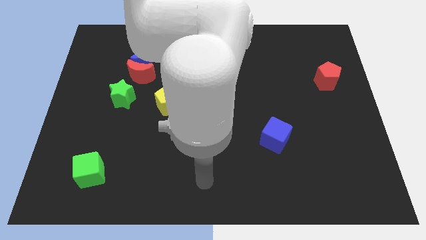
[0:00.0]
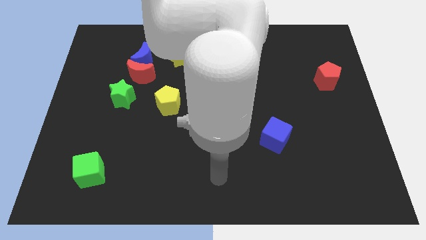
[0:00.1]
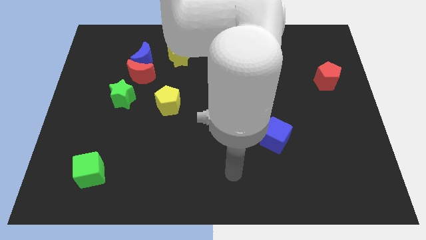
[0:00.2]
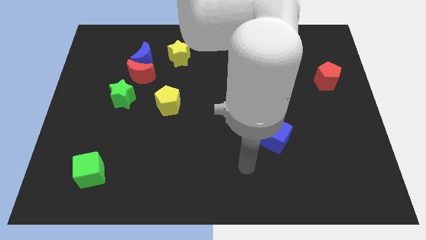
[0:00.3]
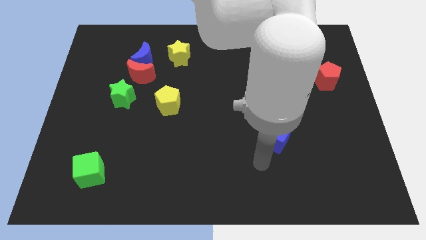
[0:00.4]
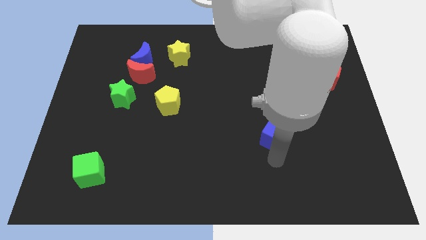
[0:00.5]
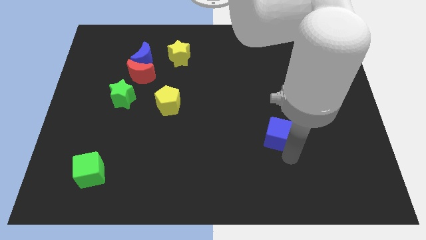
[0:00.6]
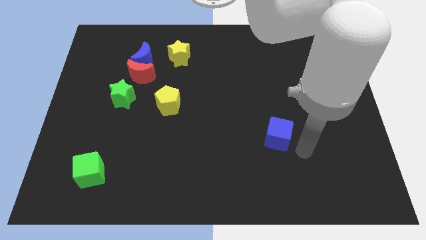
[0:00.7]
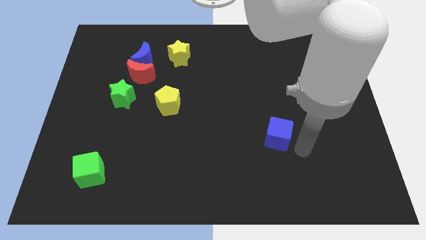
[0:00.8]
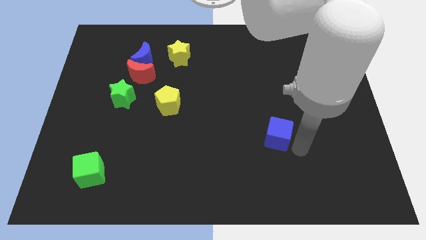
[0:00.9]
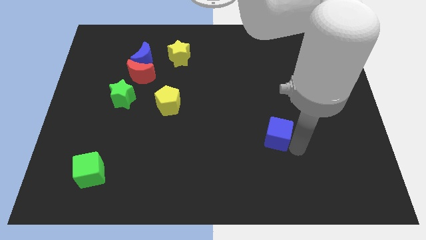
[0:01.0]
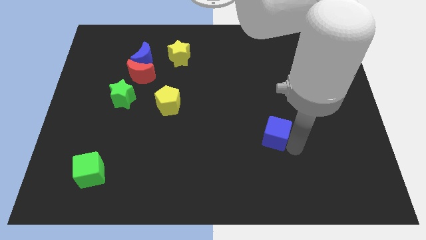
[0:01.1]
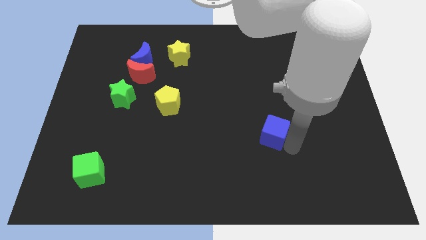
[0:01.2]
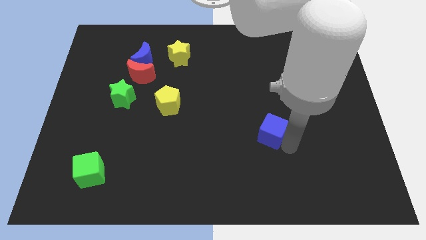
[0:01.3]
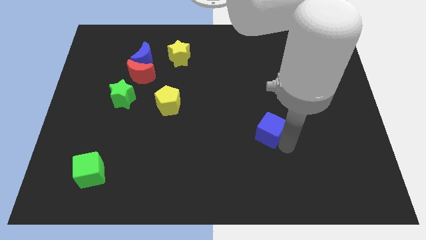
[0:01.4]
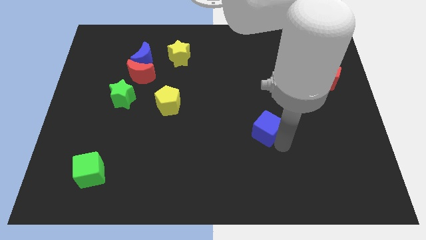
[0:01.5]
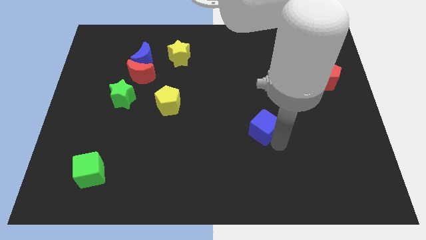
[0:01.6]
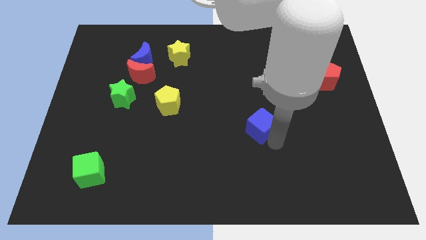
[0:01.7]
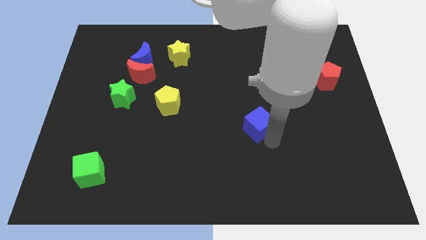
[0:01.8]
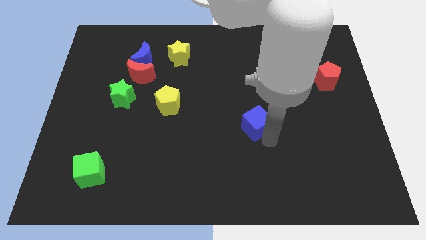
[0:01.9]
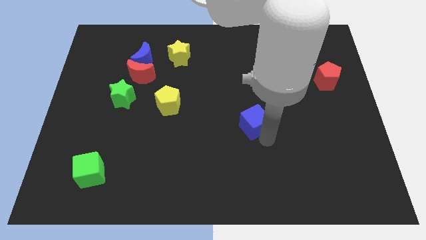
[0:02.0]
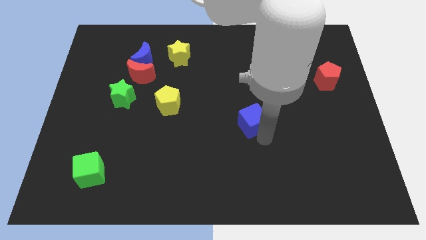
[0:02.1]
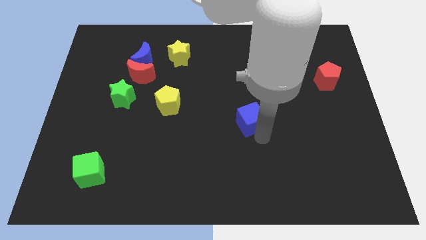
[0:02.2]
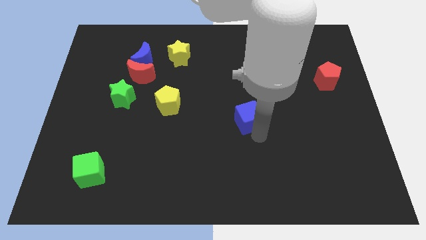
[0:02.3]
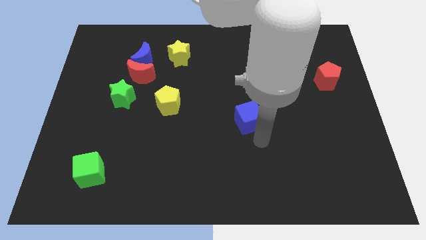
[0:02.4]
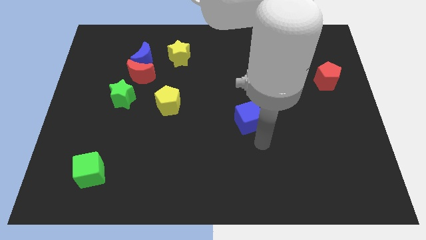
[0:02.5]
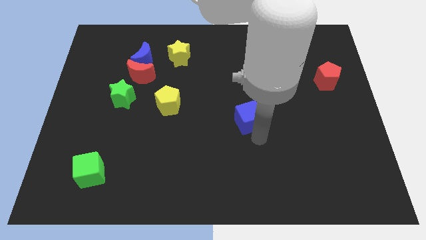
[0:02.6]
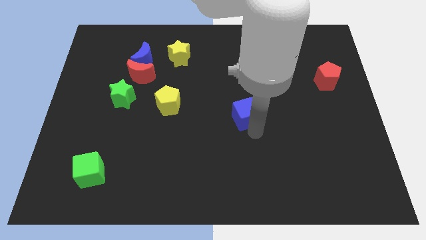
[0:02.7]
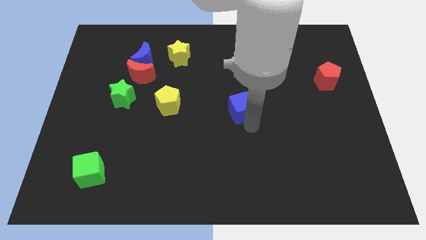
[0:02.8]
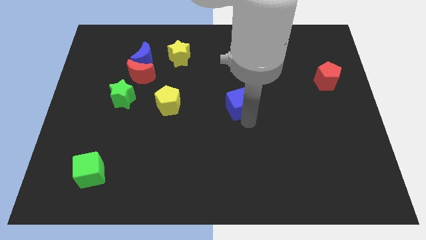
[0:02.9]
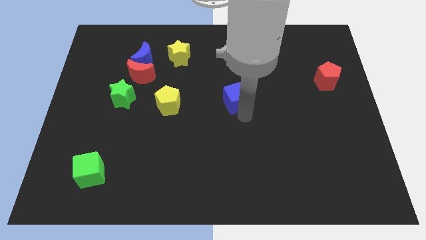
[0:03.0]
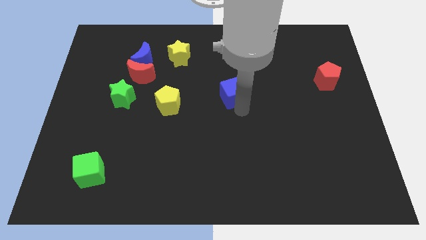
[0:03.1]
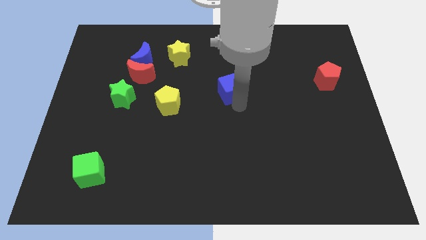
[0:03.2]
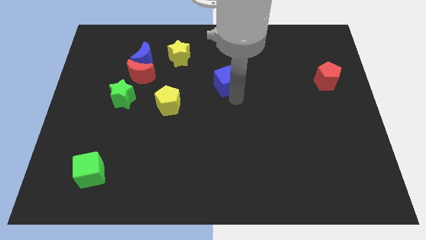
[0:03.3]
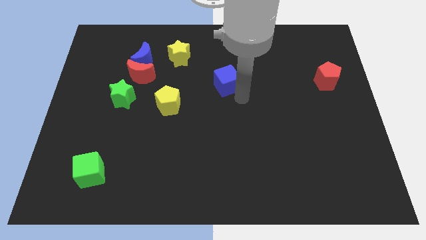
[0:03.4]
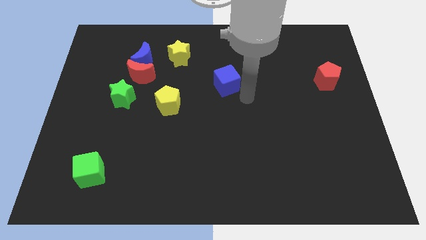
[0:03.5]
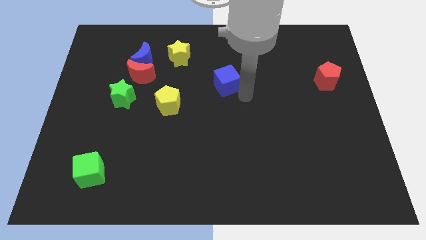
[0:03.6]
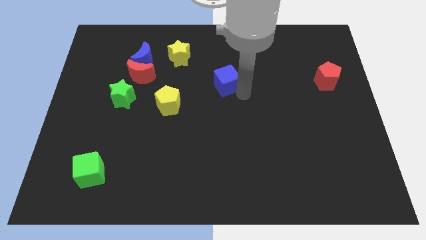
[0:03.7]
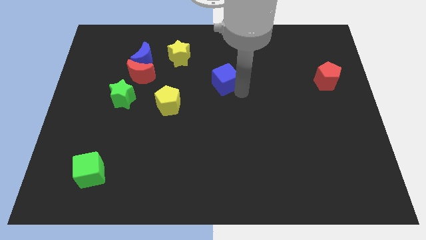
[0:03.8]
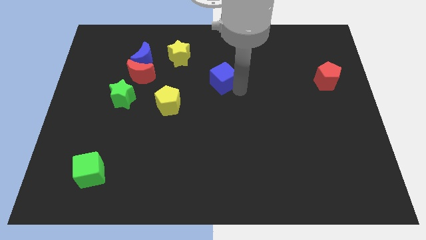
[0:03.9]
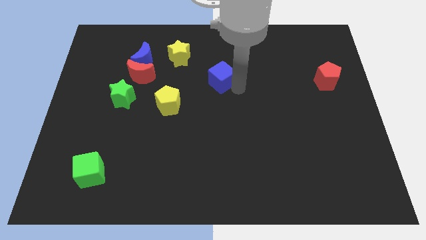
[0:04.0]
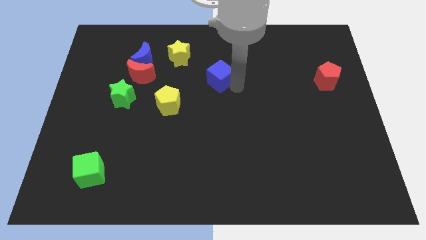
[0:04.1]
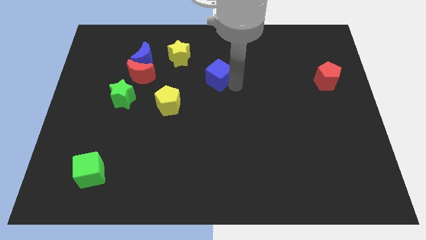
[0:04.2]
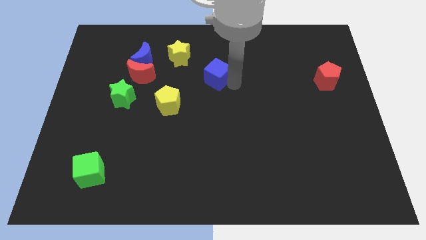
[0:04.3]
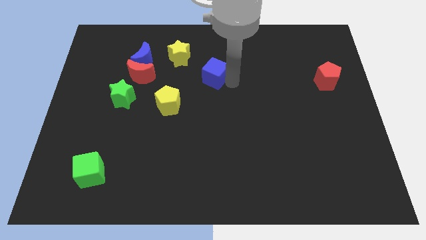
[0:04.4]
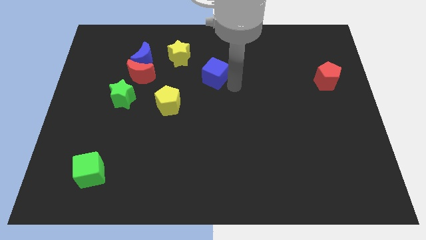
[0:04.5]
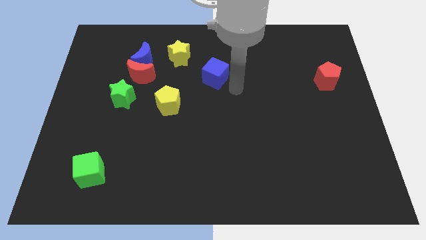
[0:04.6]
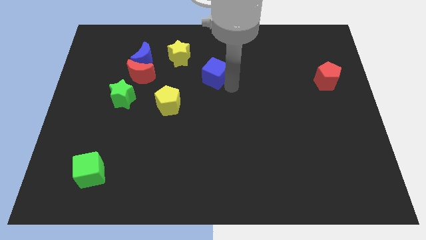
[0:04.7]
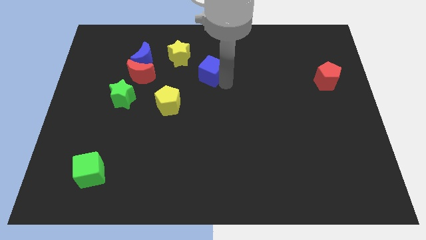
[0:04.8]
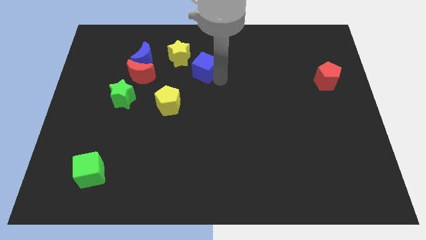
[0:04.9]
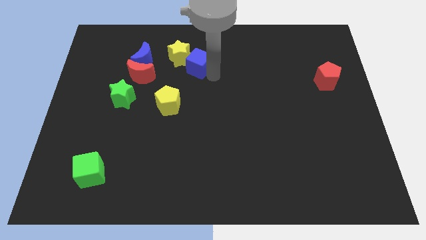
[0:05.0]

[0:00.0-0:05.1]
slide the blue cube towards the yellow star

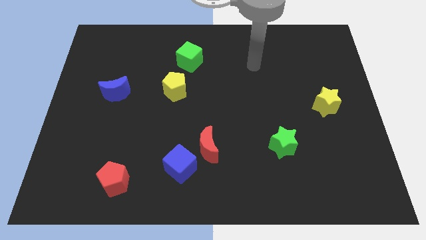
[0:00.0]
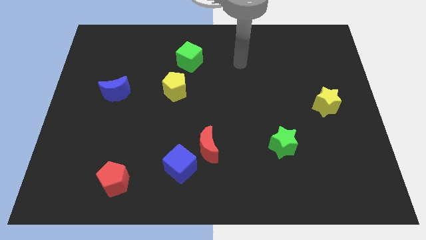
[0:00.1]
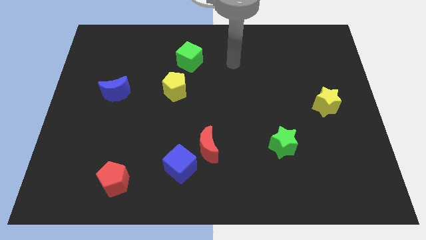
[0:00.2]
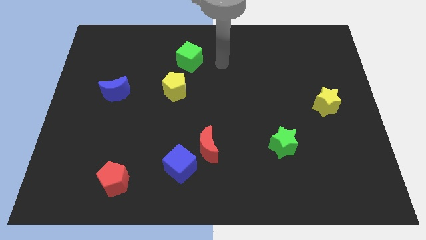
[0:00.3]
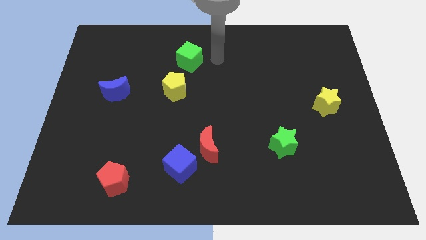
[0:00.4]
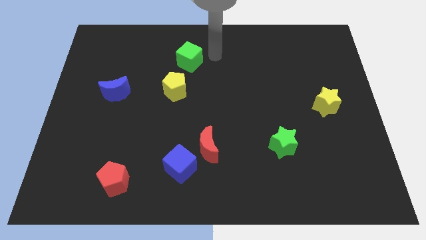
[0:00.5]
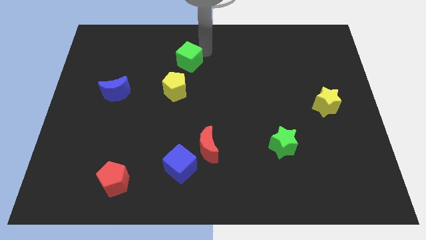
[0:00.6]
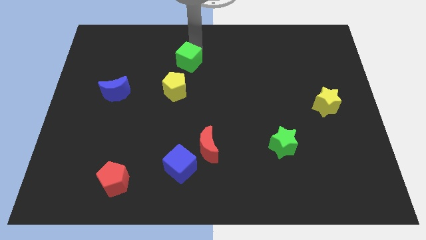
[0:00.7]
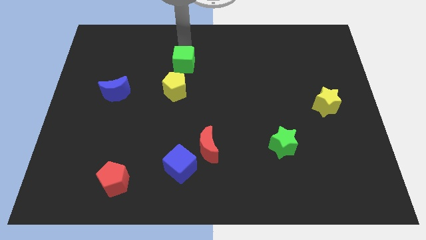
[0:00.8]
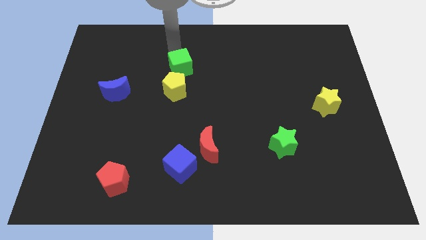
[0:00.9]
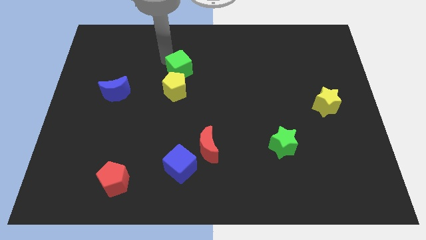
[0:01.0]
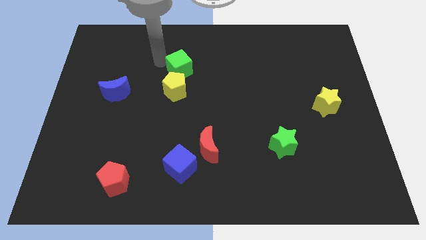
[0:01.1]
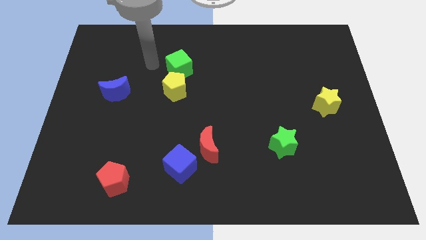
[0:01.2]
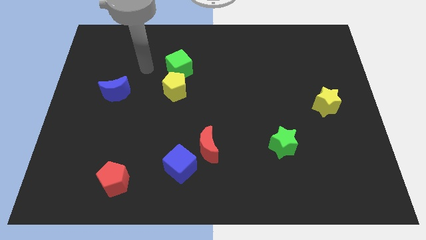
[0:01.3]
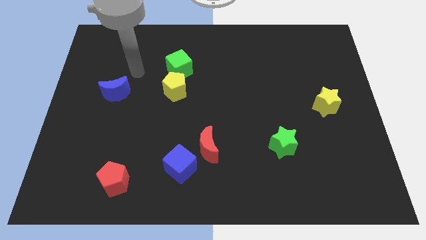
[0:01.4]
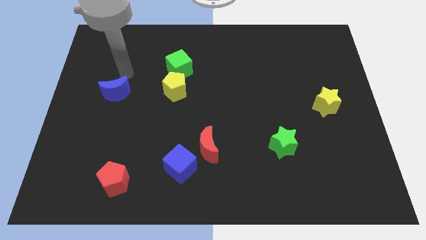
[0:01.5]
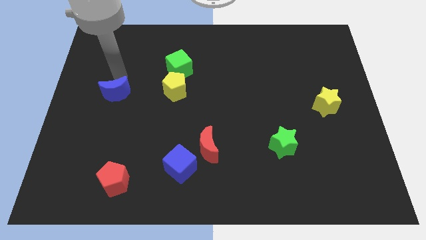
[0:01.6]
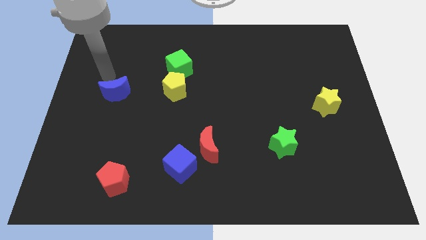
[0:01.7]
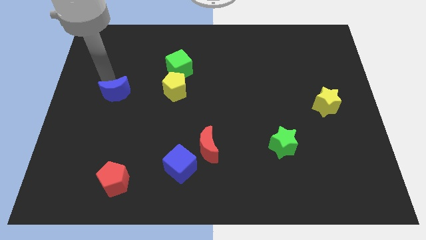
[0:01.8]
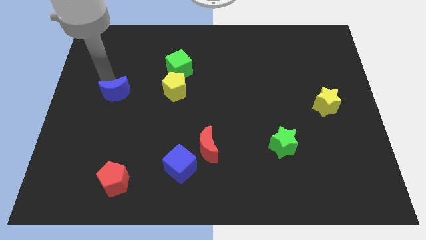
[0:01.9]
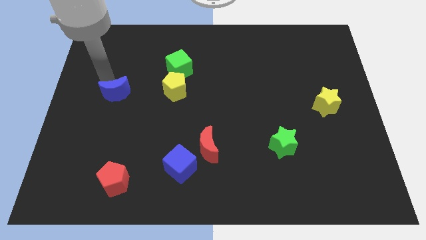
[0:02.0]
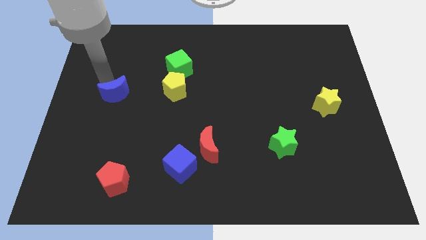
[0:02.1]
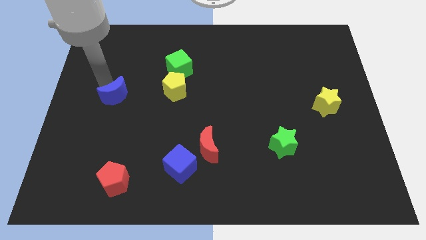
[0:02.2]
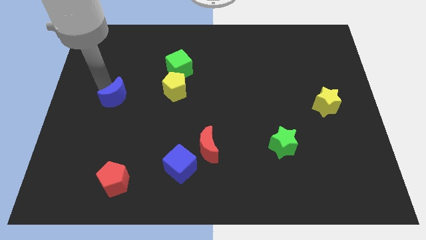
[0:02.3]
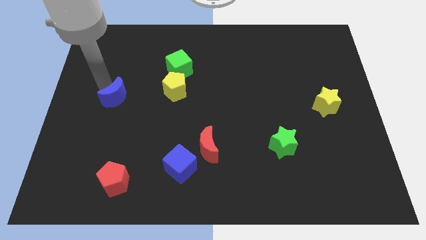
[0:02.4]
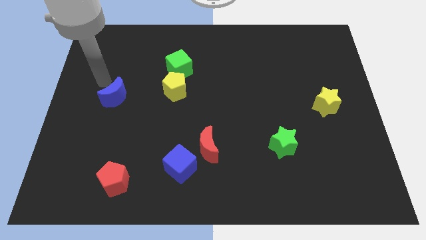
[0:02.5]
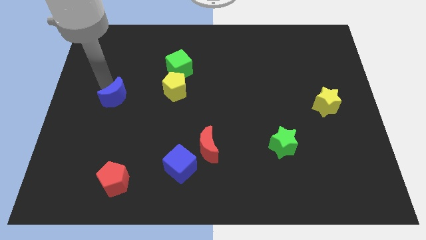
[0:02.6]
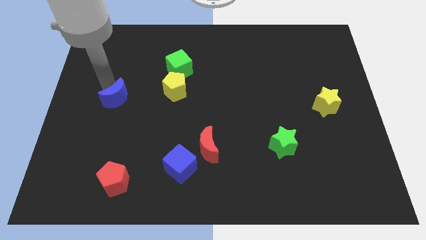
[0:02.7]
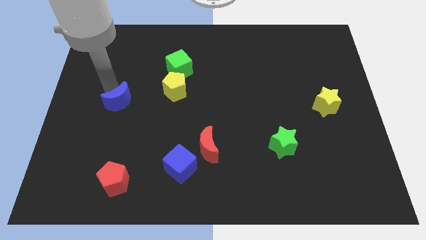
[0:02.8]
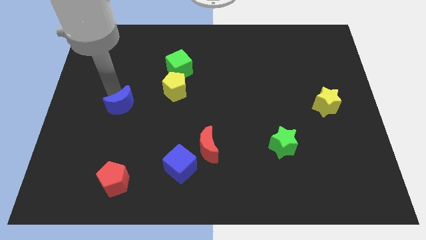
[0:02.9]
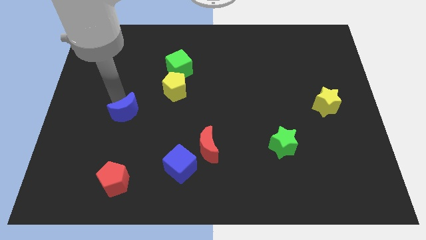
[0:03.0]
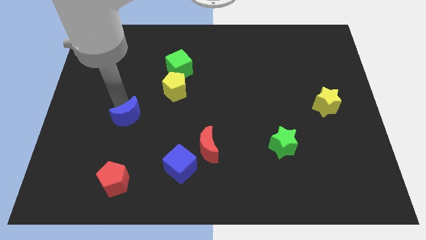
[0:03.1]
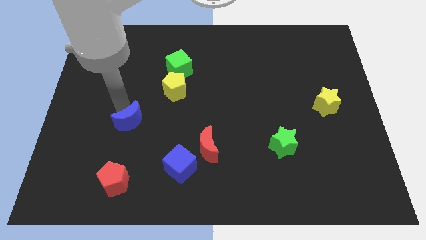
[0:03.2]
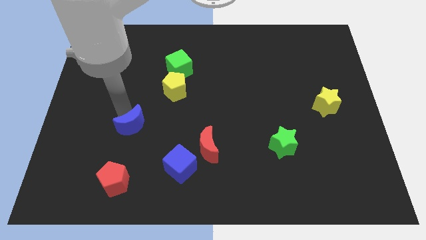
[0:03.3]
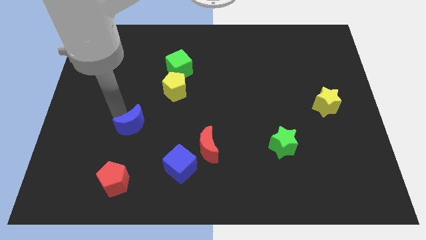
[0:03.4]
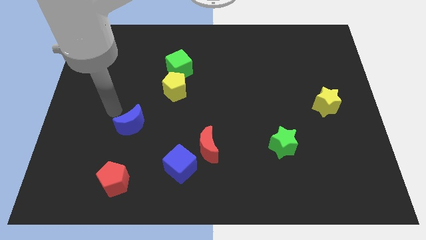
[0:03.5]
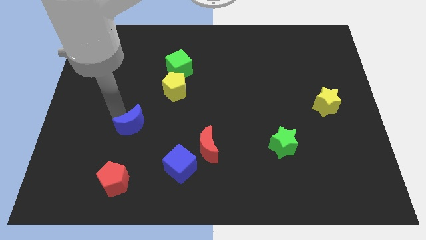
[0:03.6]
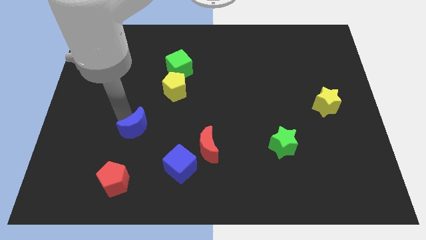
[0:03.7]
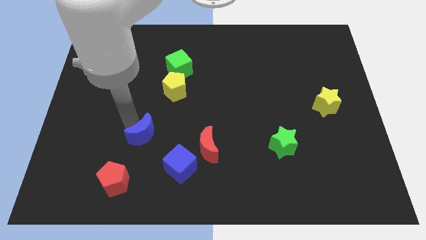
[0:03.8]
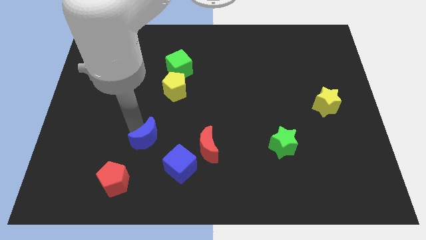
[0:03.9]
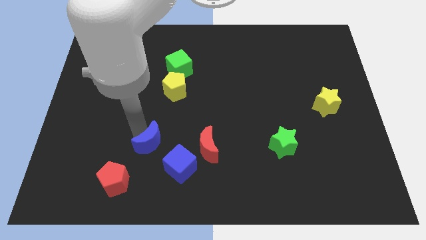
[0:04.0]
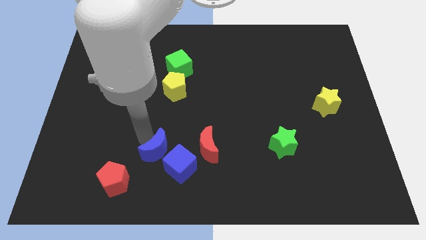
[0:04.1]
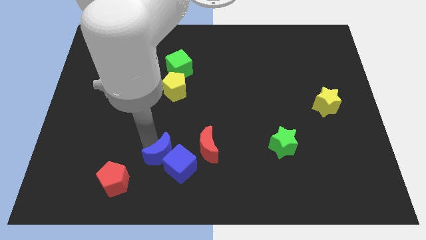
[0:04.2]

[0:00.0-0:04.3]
put the blue moon to the blue cube
